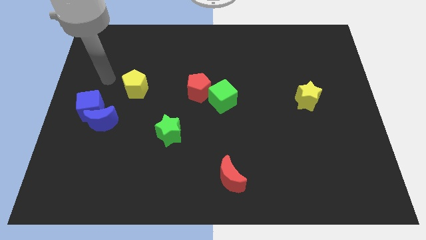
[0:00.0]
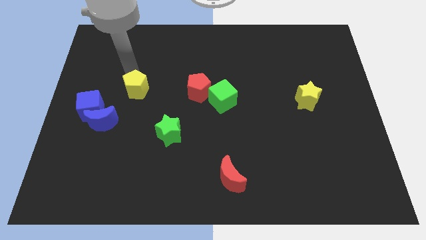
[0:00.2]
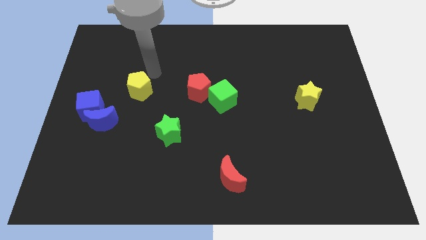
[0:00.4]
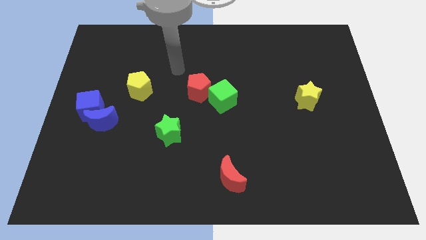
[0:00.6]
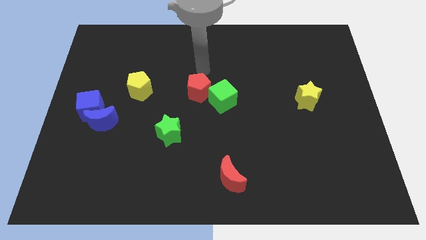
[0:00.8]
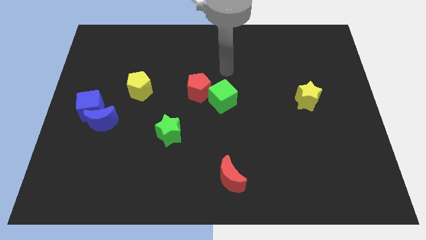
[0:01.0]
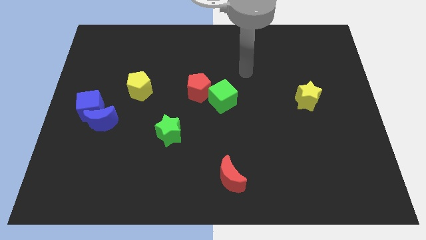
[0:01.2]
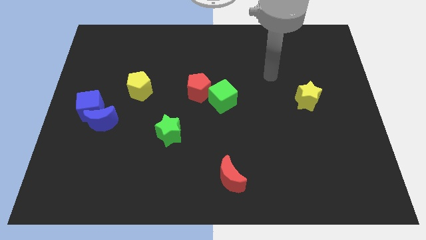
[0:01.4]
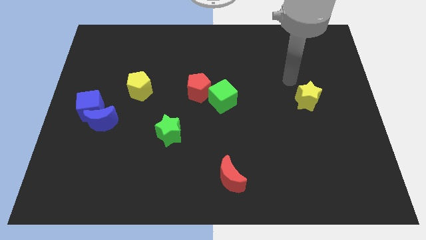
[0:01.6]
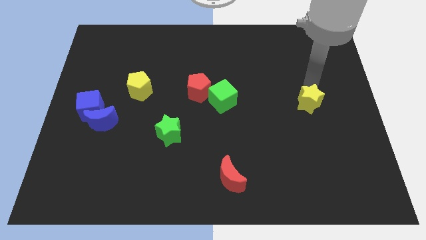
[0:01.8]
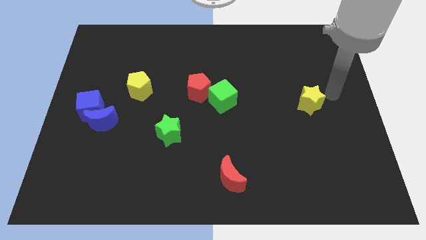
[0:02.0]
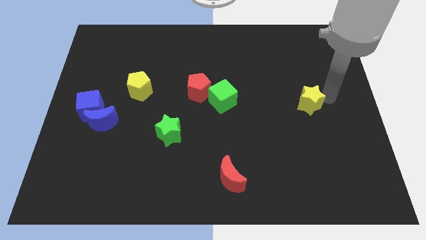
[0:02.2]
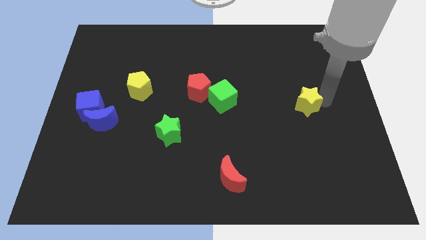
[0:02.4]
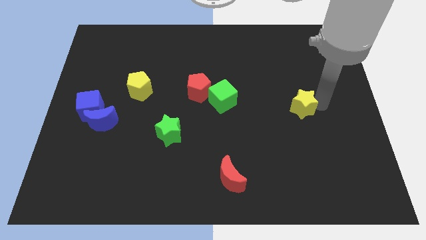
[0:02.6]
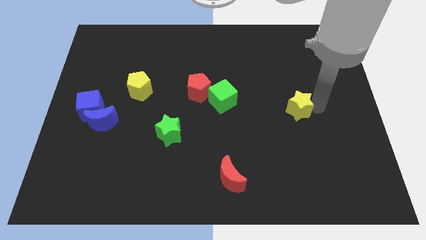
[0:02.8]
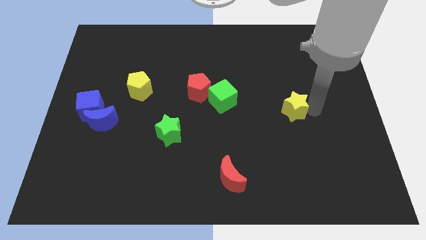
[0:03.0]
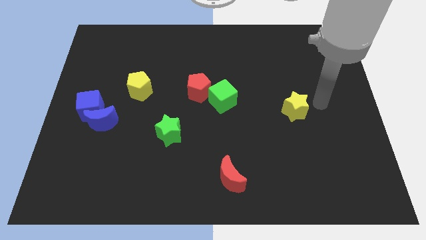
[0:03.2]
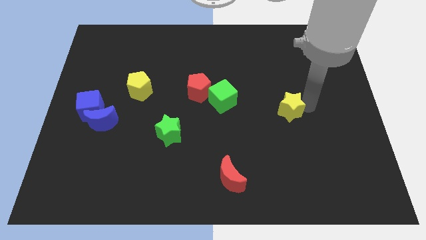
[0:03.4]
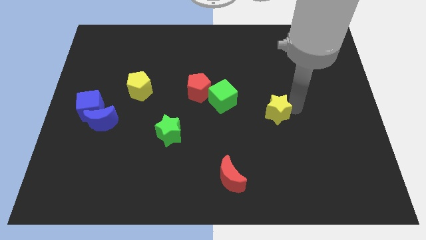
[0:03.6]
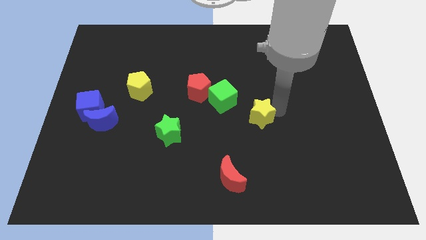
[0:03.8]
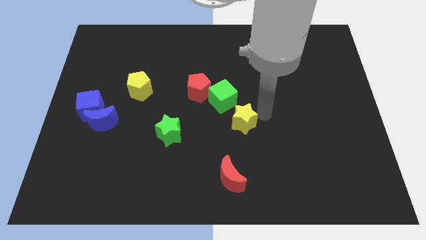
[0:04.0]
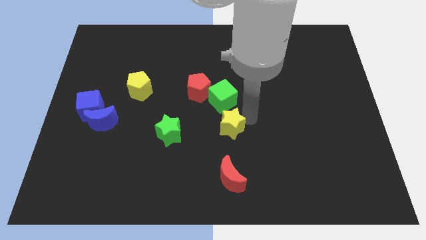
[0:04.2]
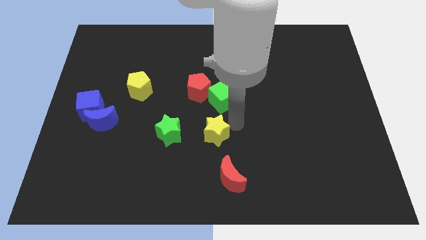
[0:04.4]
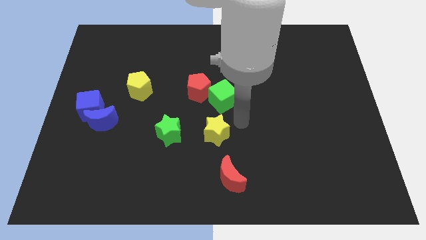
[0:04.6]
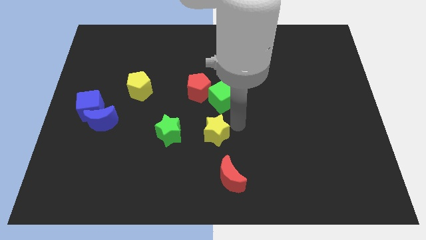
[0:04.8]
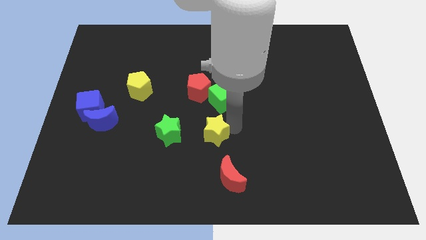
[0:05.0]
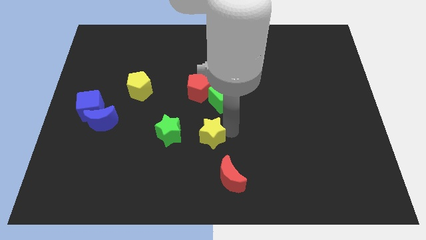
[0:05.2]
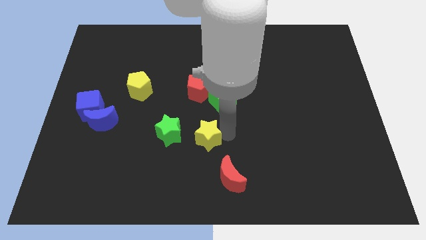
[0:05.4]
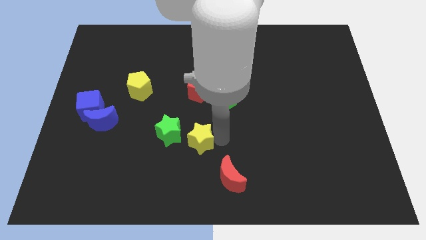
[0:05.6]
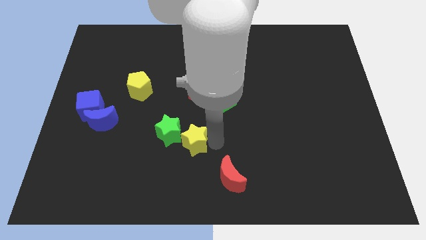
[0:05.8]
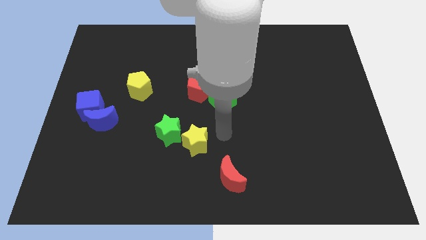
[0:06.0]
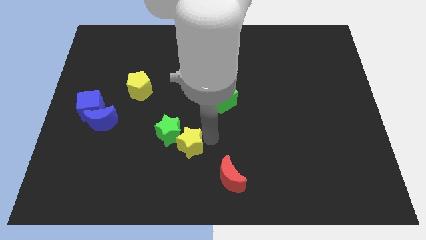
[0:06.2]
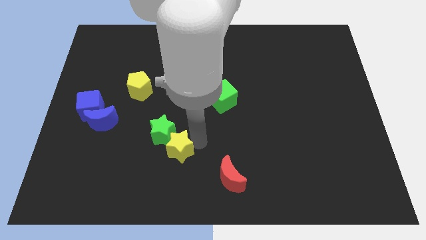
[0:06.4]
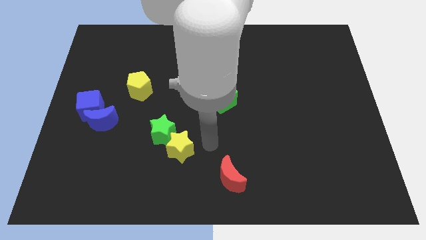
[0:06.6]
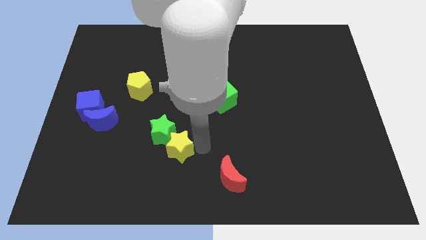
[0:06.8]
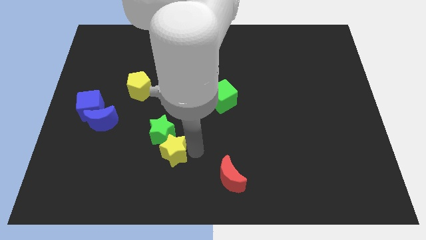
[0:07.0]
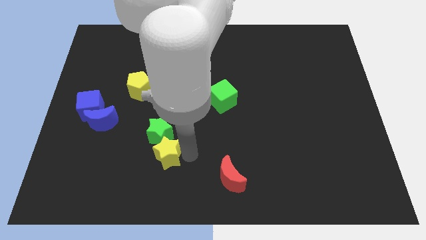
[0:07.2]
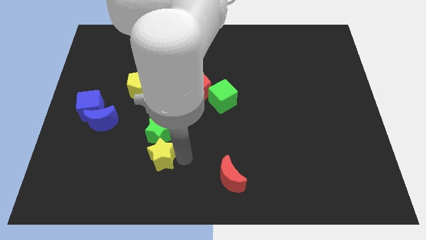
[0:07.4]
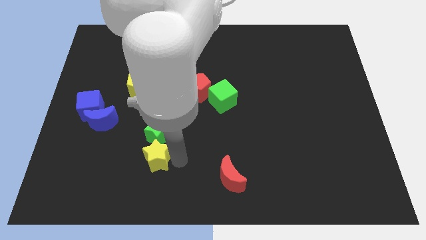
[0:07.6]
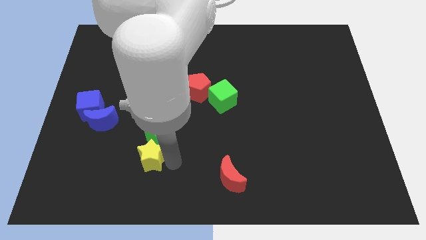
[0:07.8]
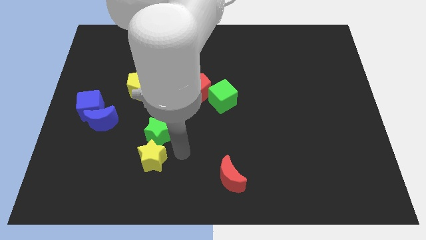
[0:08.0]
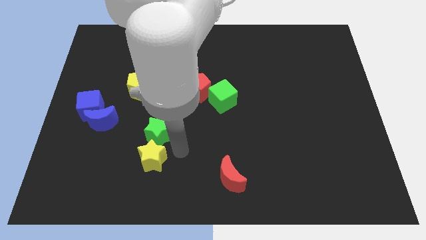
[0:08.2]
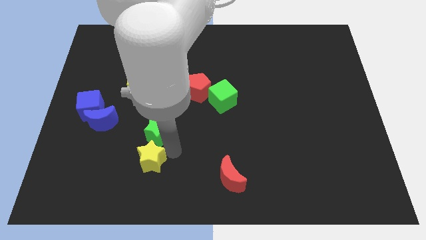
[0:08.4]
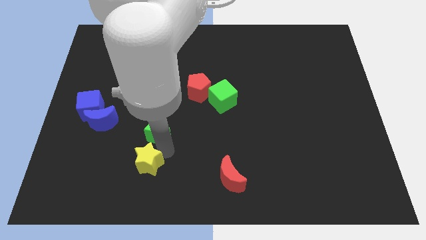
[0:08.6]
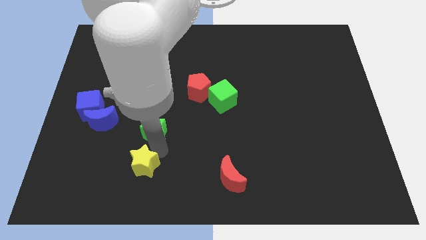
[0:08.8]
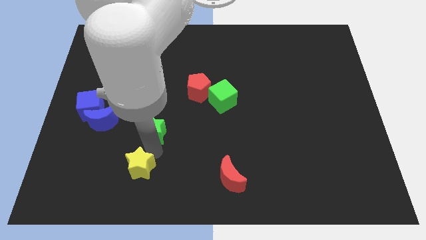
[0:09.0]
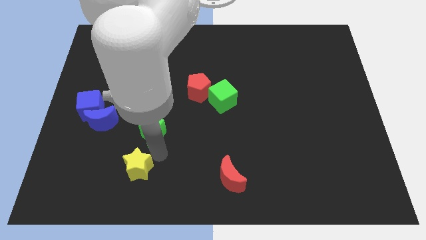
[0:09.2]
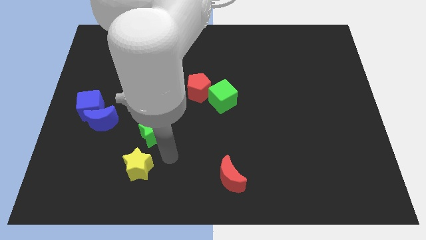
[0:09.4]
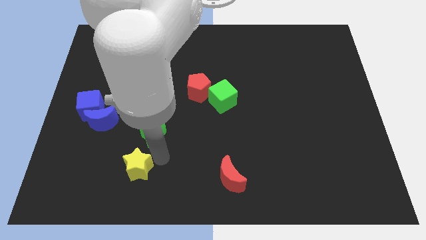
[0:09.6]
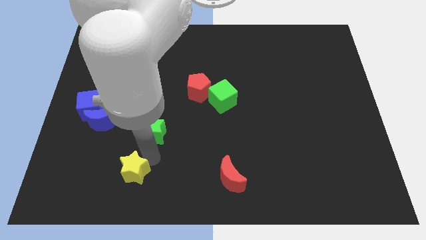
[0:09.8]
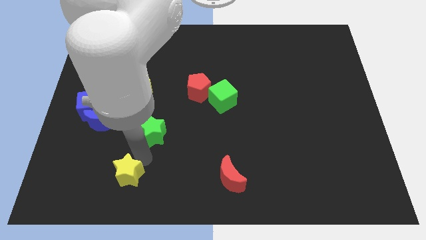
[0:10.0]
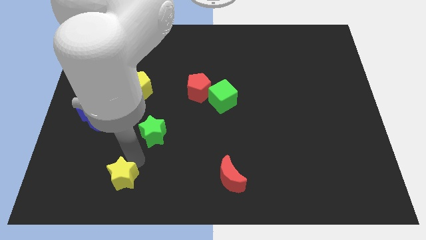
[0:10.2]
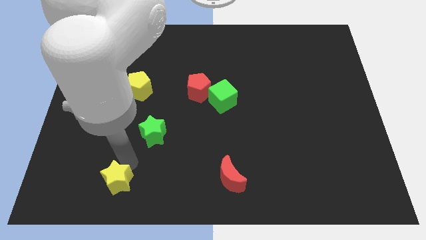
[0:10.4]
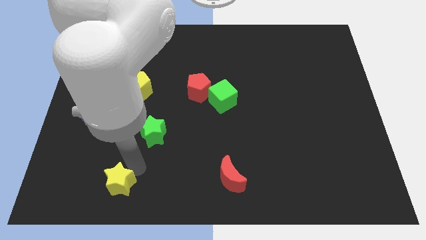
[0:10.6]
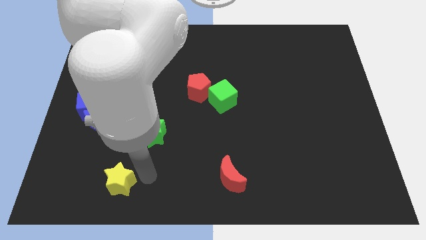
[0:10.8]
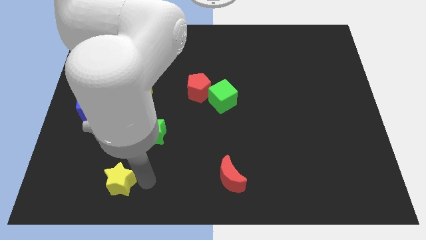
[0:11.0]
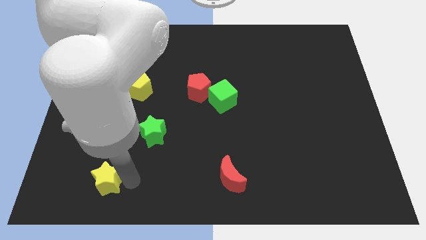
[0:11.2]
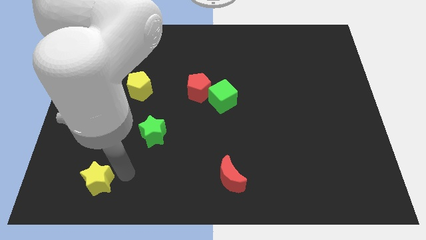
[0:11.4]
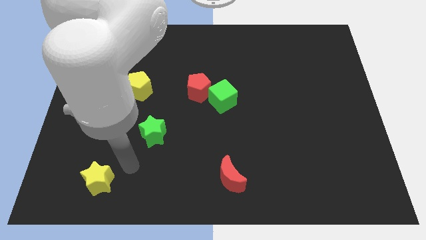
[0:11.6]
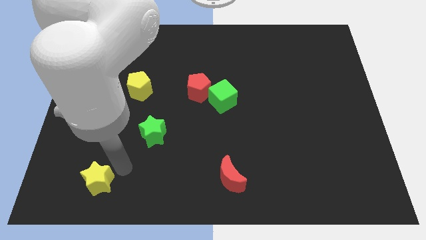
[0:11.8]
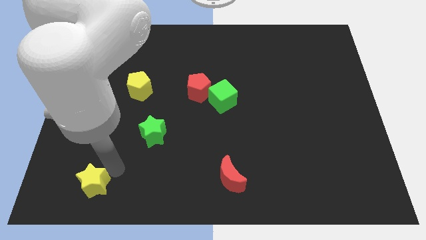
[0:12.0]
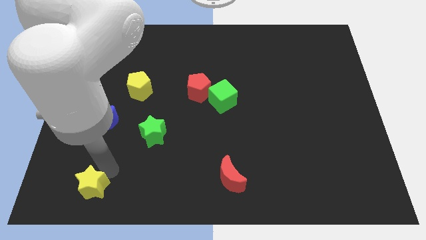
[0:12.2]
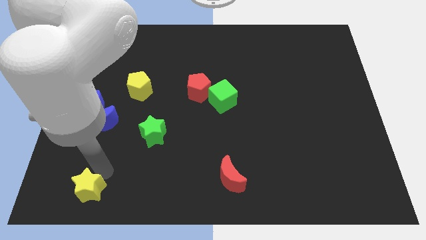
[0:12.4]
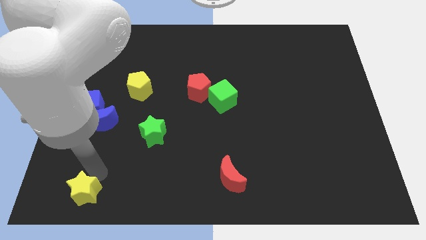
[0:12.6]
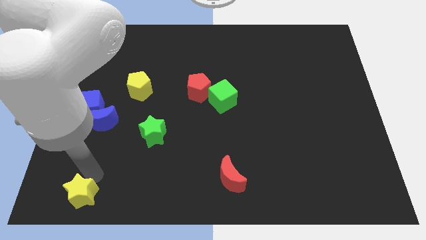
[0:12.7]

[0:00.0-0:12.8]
move the yellow star to the lower left corner
